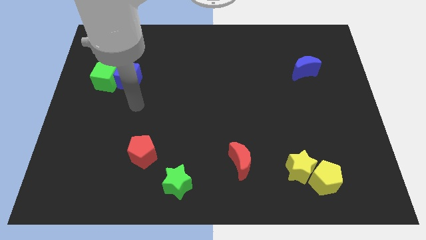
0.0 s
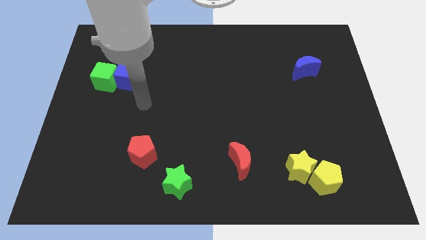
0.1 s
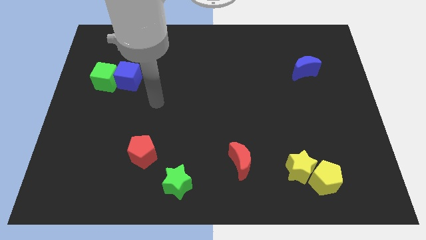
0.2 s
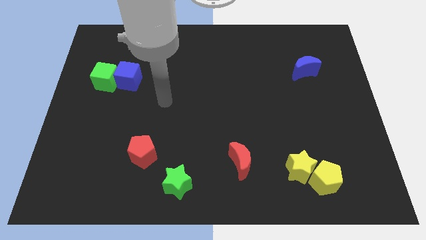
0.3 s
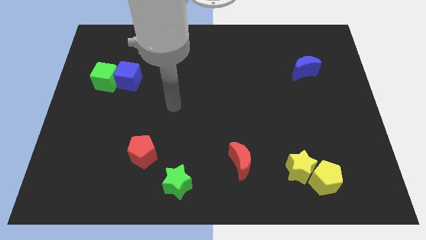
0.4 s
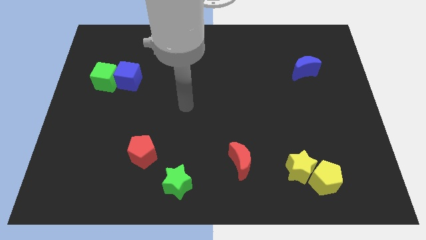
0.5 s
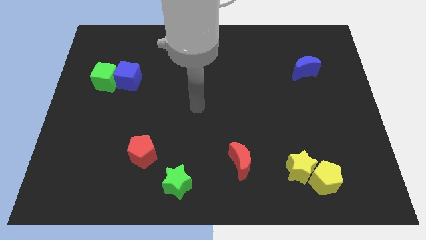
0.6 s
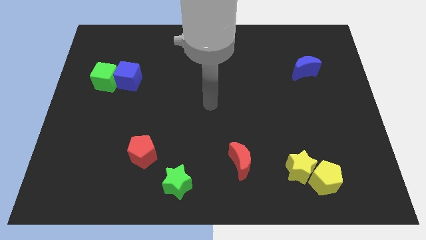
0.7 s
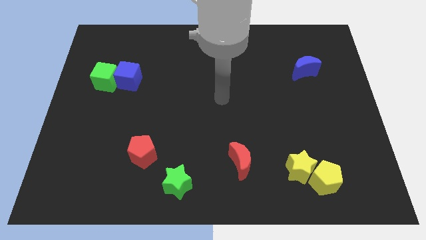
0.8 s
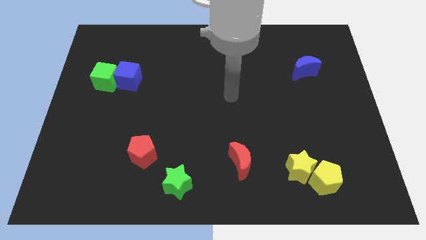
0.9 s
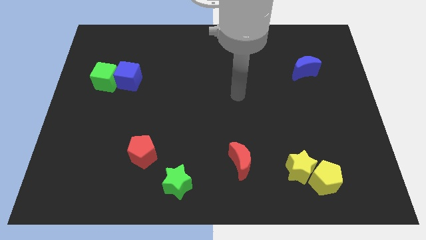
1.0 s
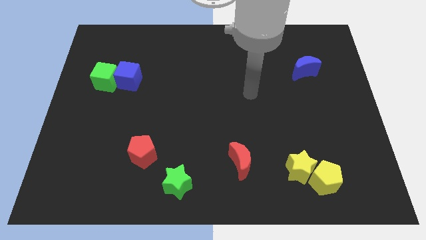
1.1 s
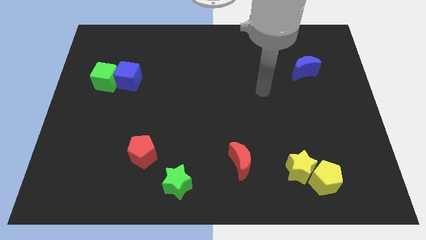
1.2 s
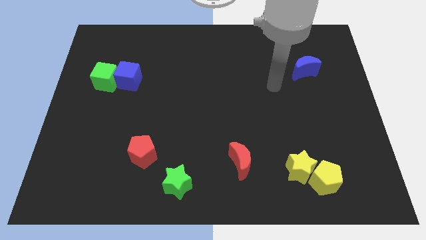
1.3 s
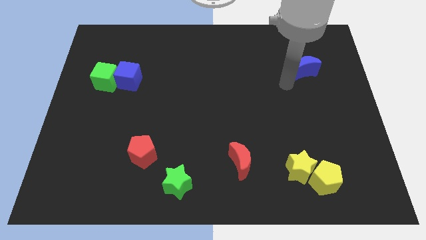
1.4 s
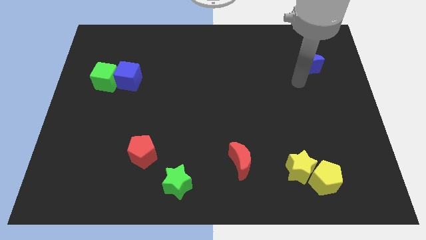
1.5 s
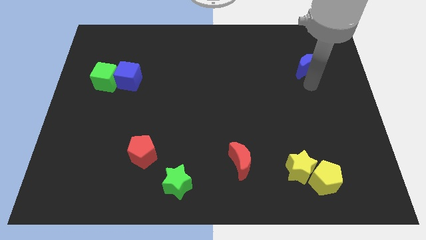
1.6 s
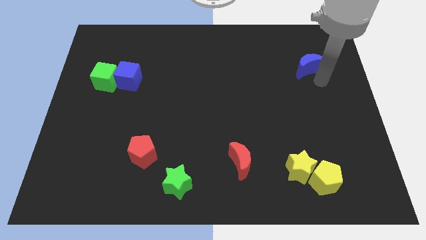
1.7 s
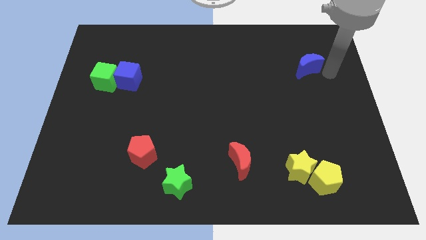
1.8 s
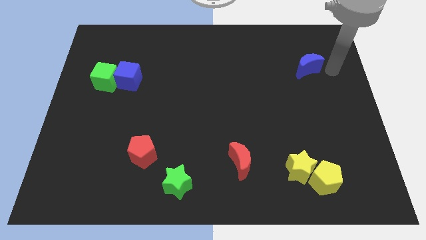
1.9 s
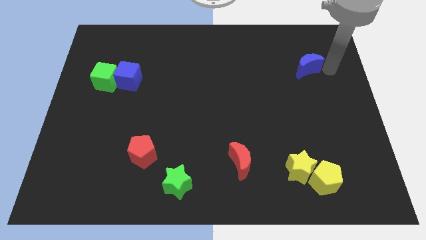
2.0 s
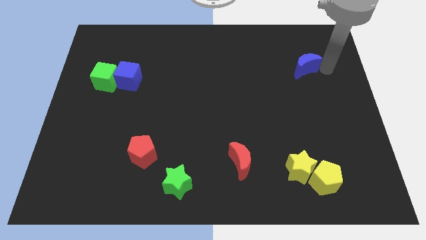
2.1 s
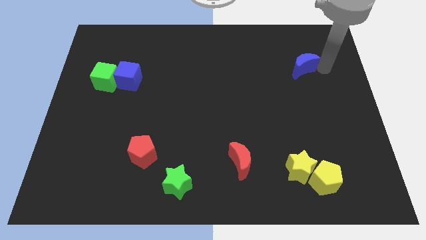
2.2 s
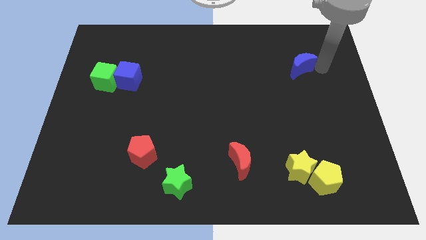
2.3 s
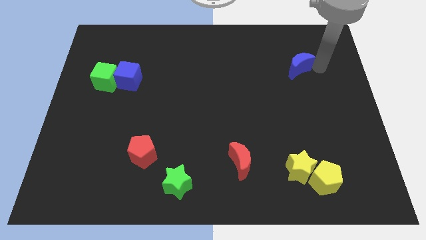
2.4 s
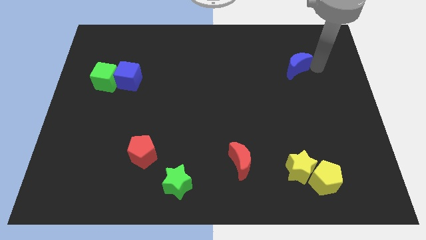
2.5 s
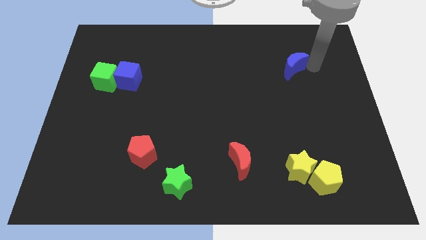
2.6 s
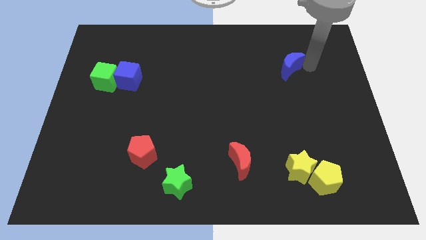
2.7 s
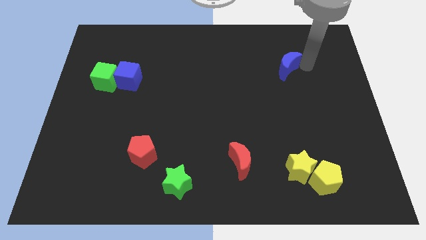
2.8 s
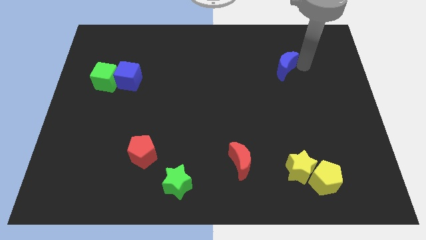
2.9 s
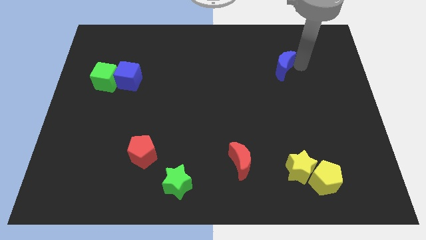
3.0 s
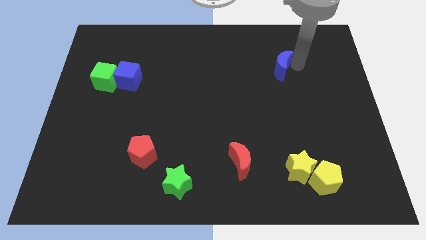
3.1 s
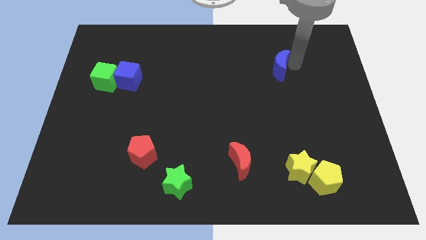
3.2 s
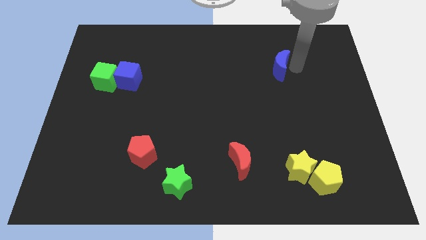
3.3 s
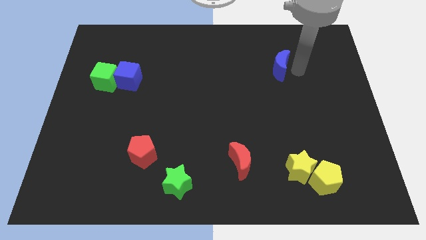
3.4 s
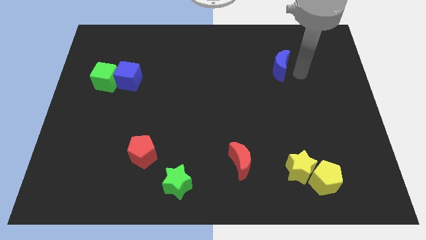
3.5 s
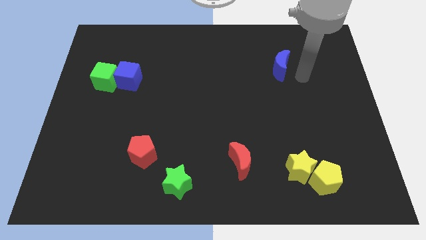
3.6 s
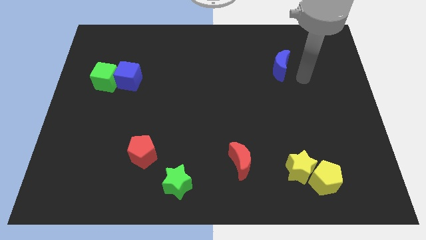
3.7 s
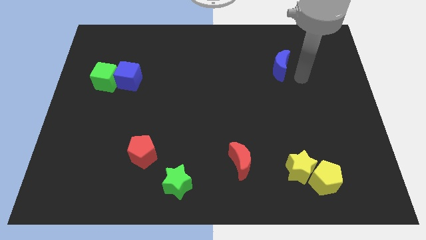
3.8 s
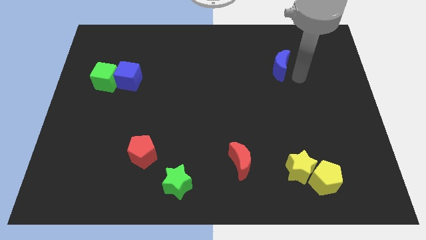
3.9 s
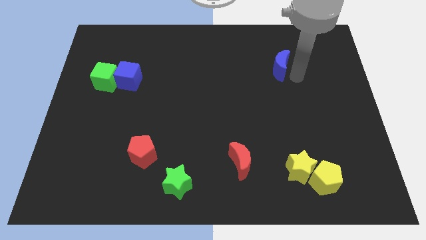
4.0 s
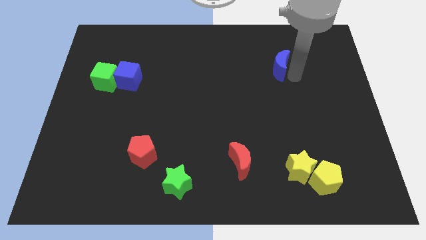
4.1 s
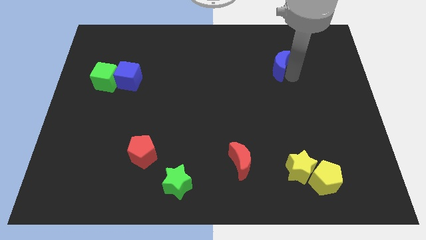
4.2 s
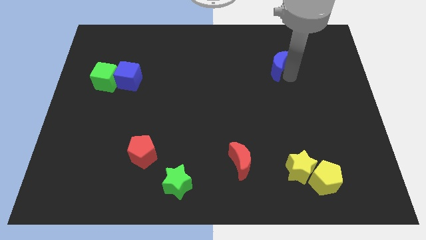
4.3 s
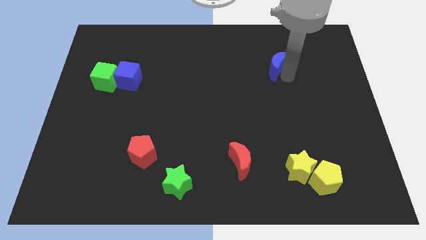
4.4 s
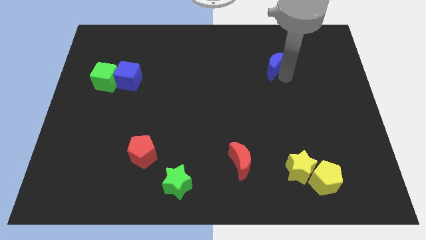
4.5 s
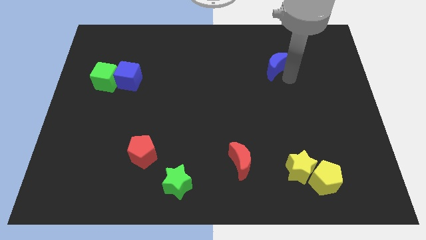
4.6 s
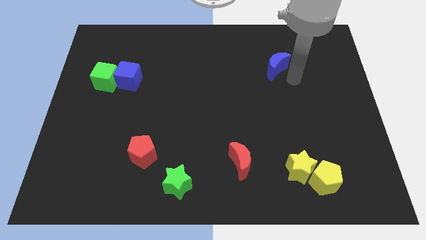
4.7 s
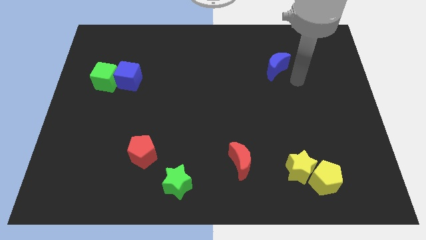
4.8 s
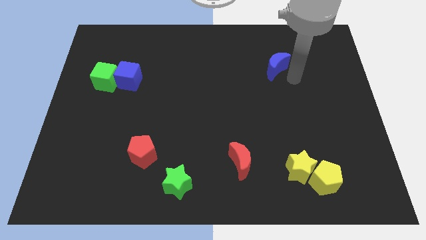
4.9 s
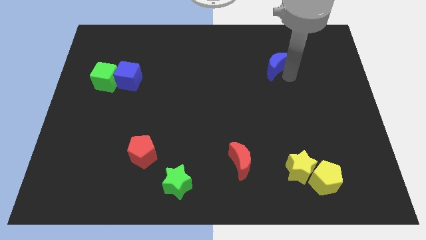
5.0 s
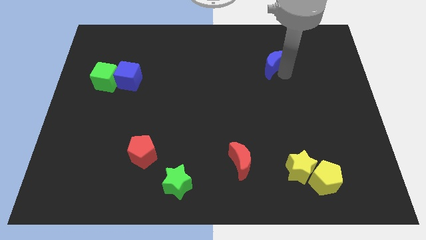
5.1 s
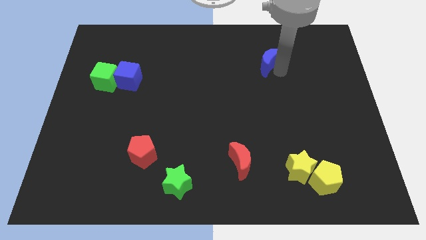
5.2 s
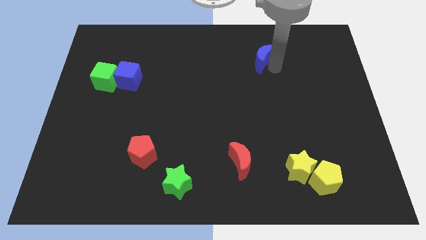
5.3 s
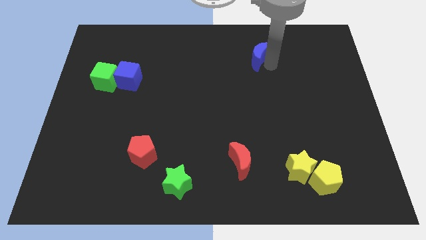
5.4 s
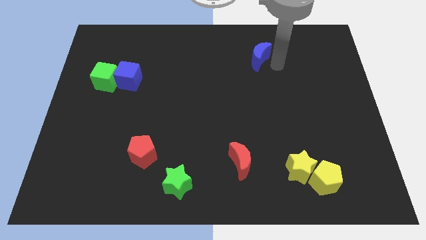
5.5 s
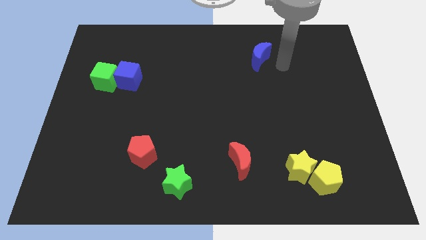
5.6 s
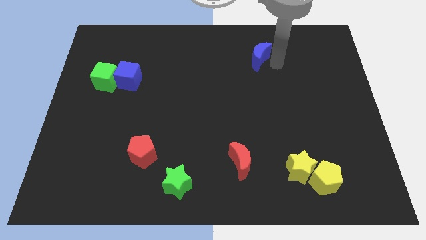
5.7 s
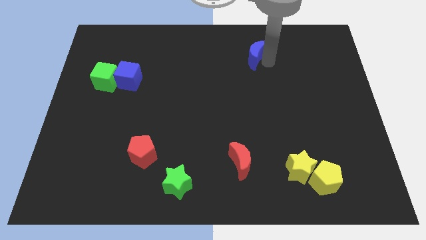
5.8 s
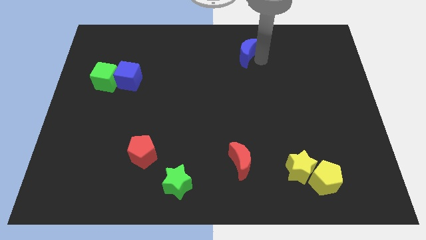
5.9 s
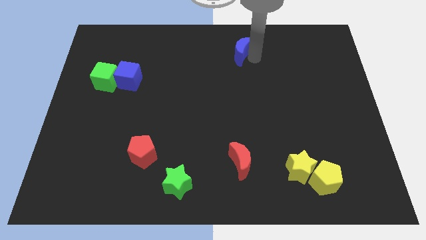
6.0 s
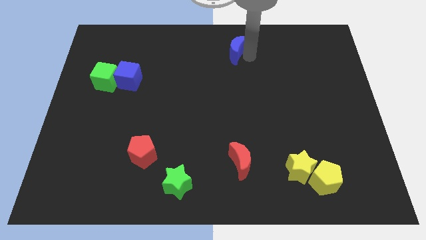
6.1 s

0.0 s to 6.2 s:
move the blue moon to the top side
